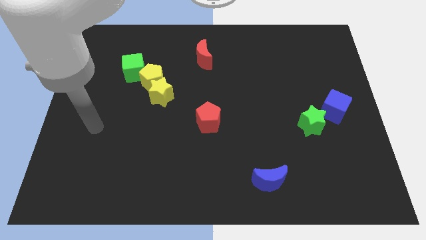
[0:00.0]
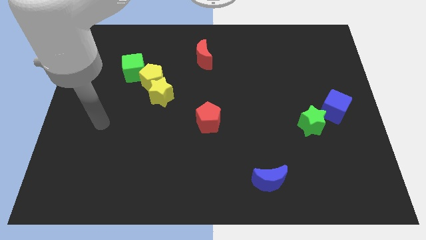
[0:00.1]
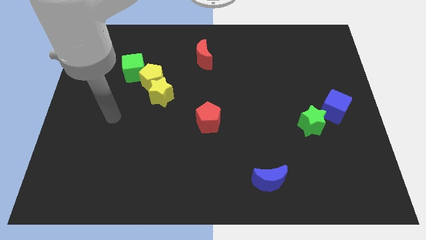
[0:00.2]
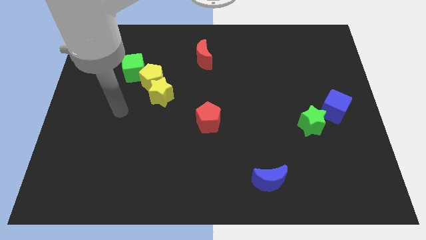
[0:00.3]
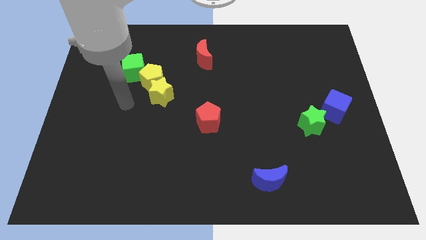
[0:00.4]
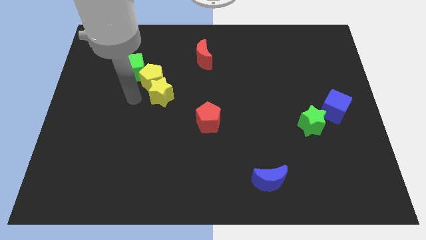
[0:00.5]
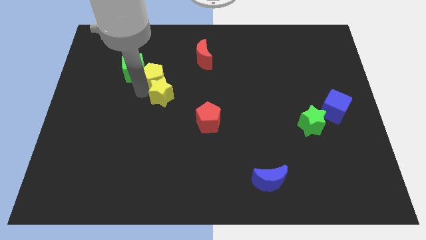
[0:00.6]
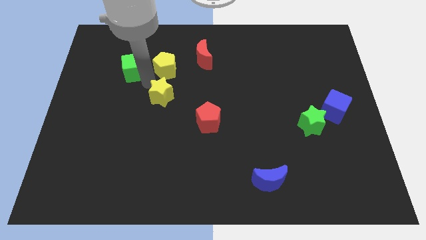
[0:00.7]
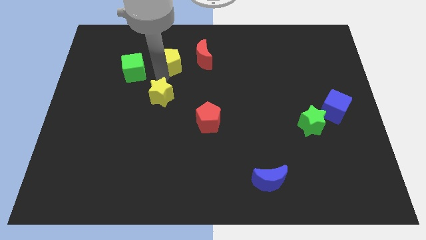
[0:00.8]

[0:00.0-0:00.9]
move the yellow star away from the yellow pentagon

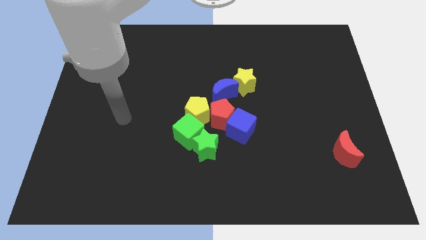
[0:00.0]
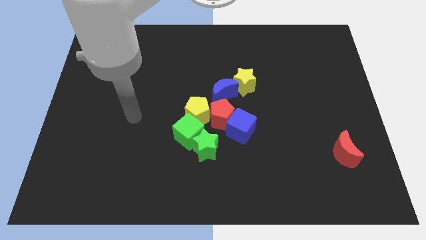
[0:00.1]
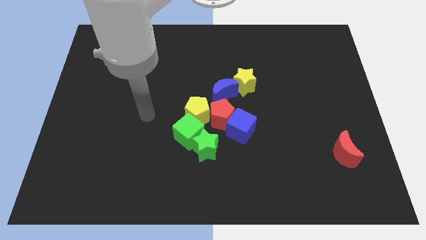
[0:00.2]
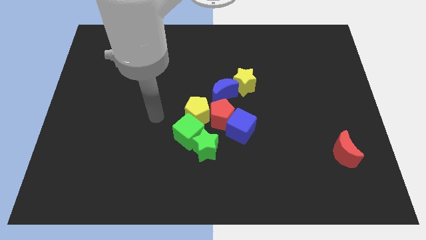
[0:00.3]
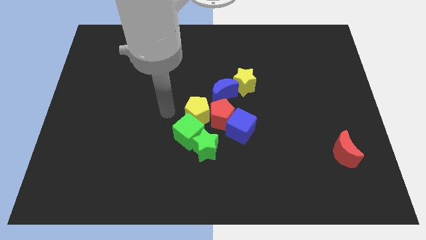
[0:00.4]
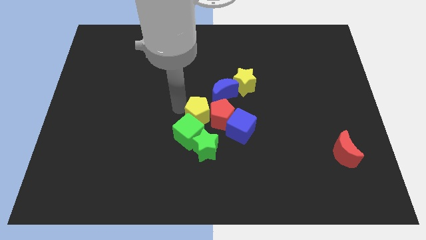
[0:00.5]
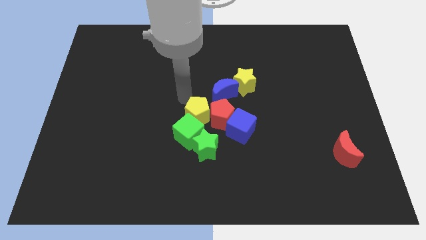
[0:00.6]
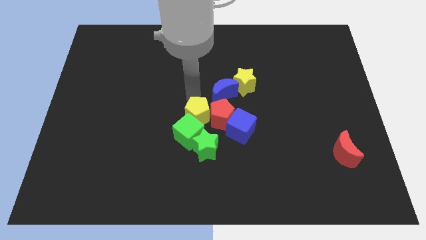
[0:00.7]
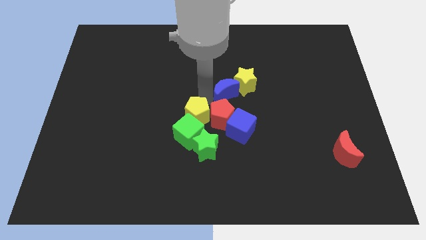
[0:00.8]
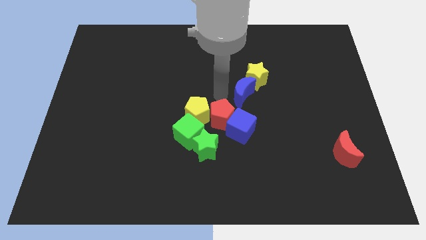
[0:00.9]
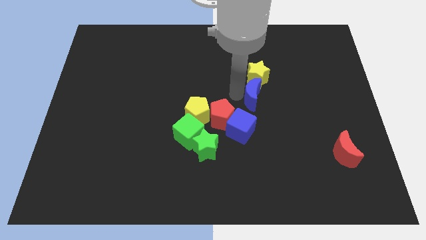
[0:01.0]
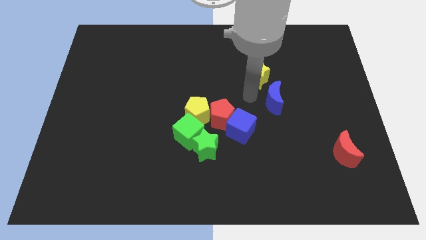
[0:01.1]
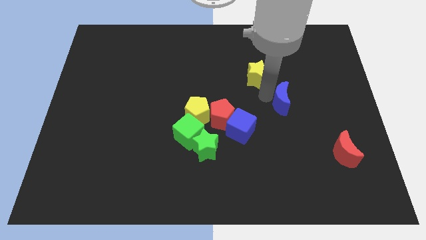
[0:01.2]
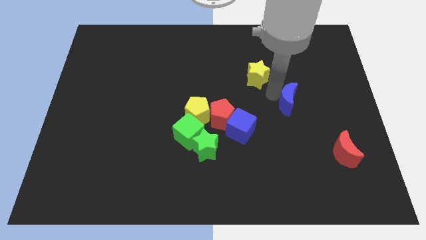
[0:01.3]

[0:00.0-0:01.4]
pull the yellow star apart from the blue moon

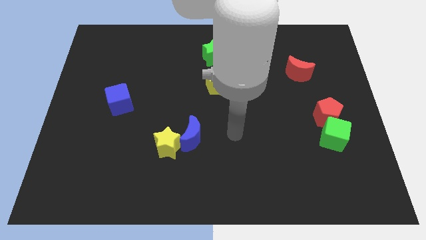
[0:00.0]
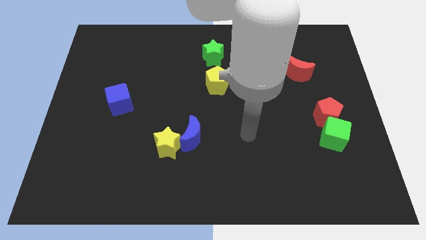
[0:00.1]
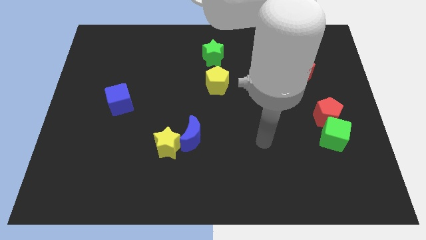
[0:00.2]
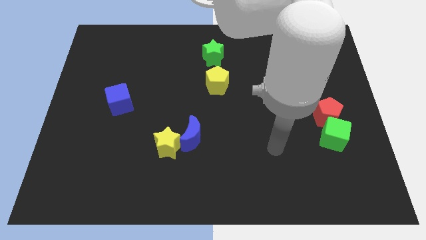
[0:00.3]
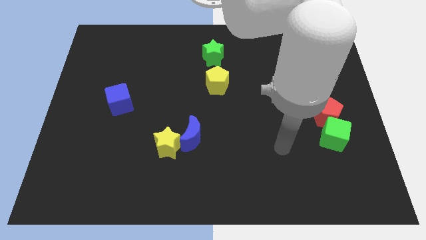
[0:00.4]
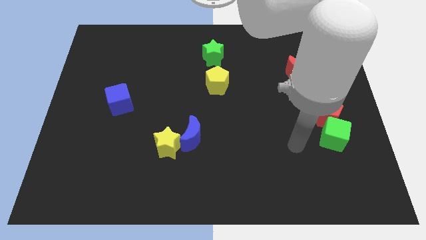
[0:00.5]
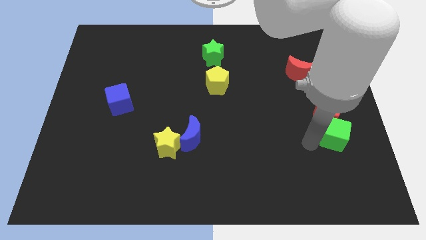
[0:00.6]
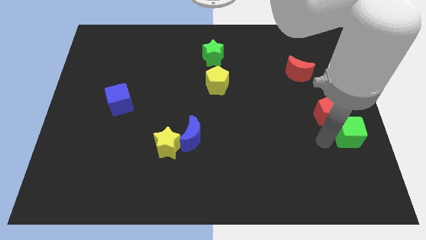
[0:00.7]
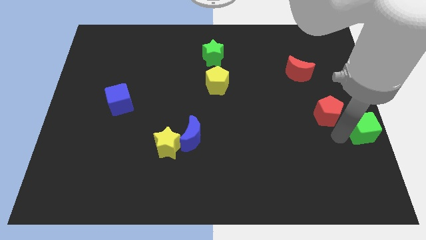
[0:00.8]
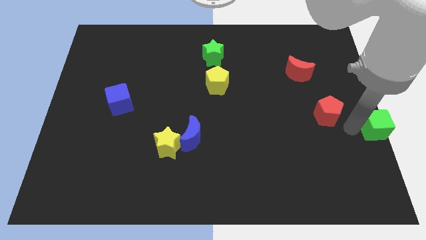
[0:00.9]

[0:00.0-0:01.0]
separate the red pentagon from the green cube

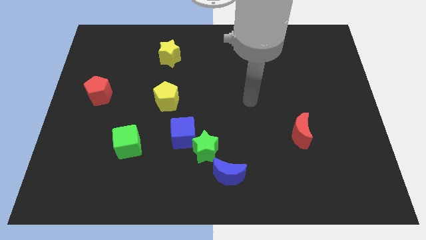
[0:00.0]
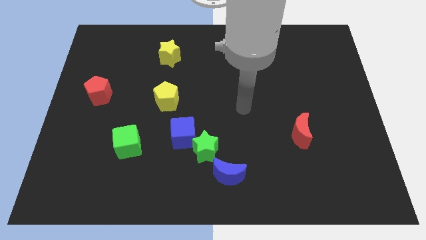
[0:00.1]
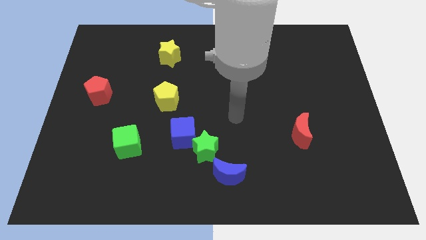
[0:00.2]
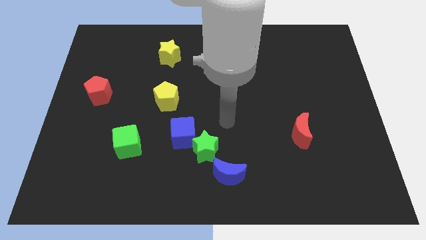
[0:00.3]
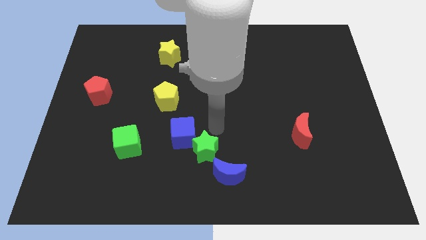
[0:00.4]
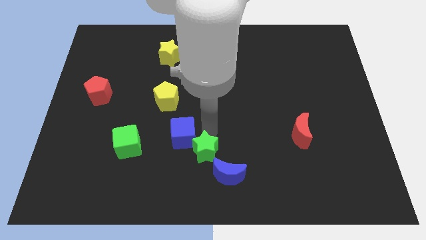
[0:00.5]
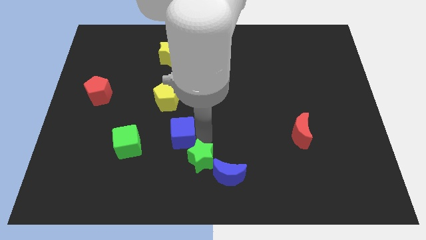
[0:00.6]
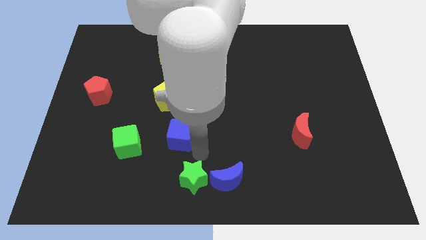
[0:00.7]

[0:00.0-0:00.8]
separate the blue cube from the green star

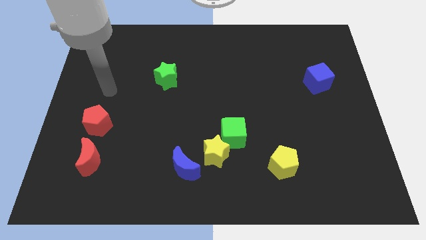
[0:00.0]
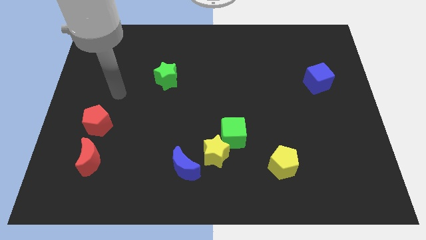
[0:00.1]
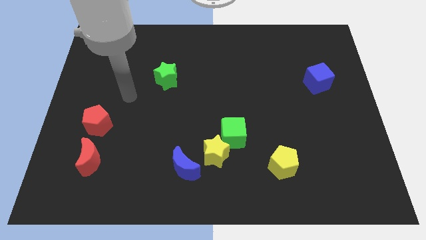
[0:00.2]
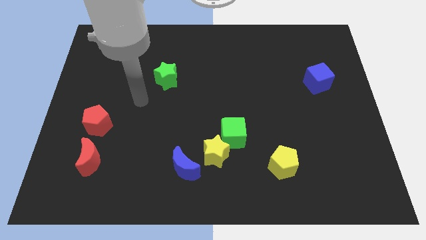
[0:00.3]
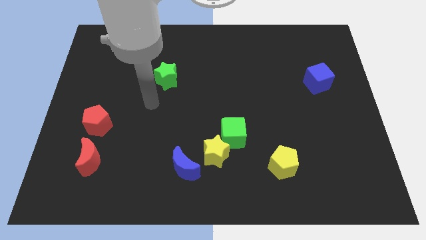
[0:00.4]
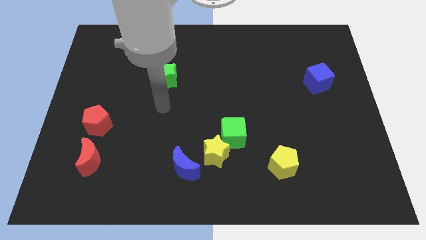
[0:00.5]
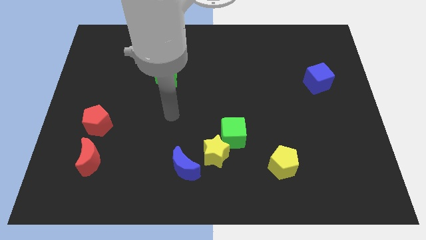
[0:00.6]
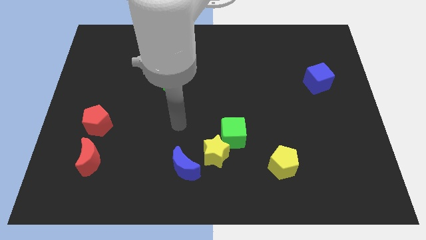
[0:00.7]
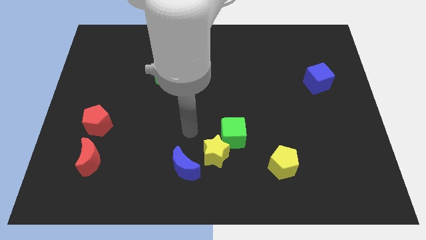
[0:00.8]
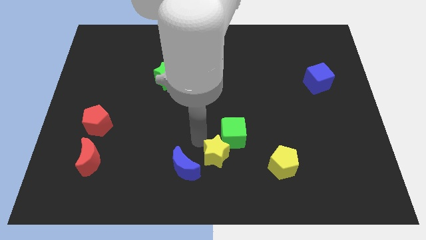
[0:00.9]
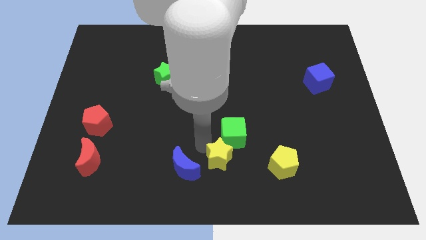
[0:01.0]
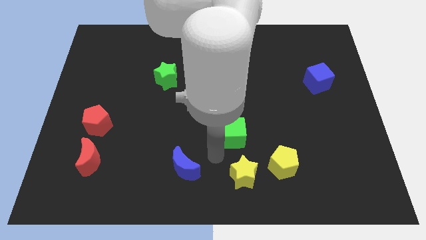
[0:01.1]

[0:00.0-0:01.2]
separate the green cube from the yellow star

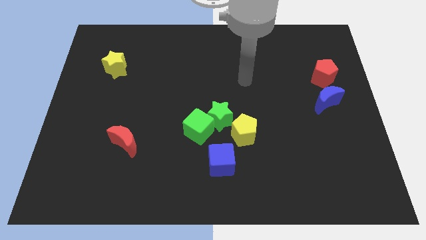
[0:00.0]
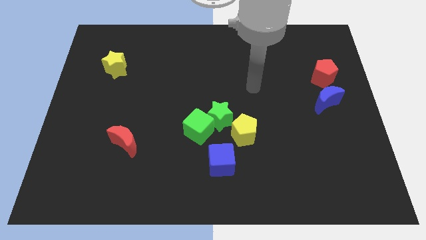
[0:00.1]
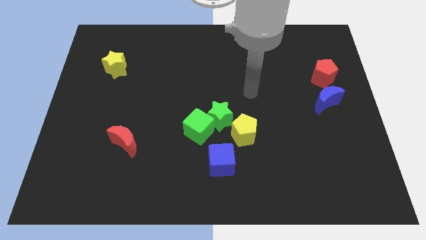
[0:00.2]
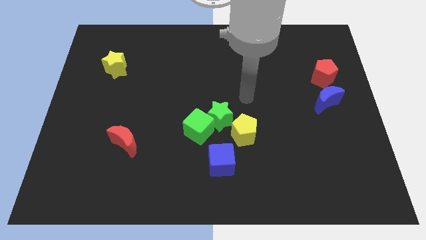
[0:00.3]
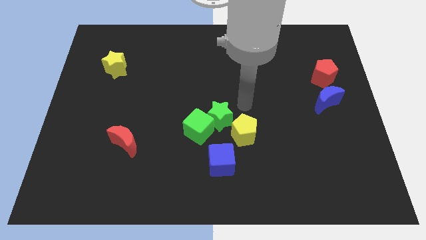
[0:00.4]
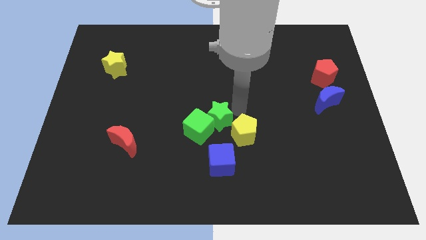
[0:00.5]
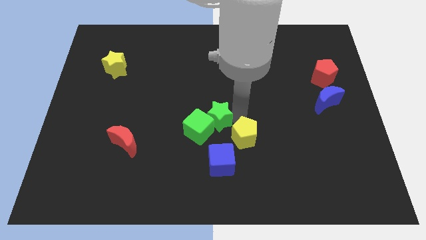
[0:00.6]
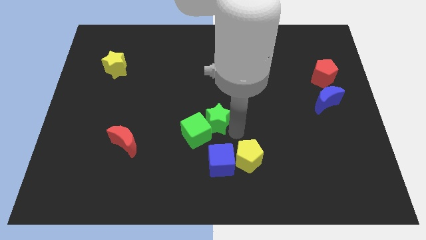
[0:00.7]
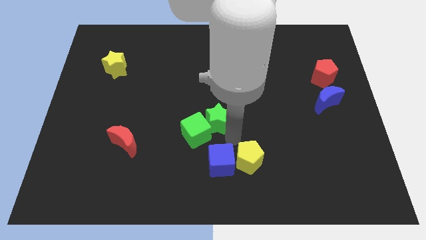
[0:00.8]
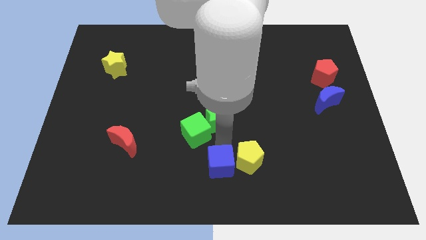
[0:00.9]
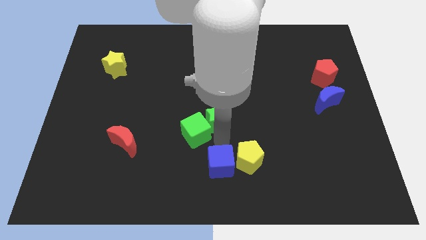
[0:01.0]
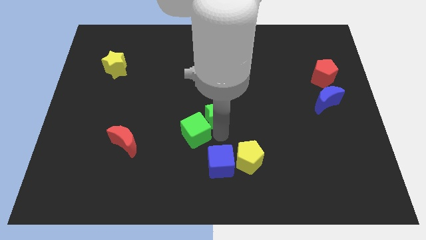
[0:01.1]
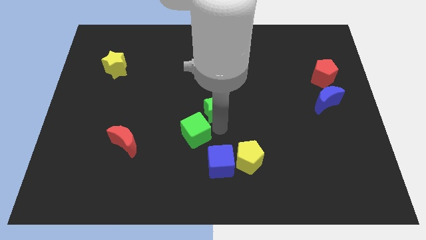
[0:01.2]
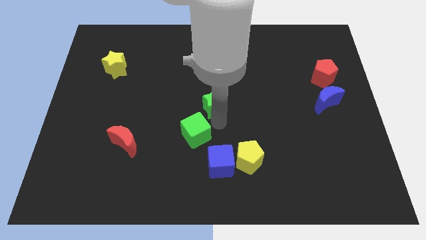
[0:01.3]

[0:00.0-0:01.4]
separate the green star from the green cube and yellow pentagon

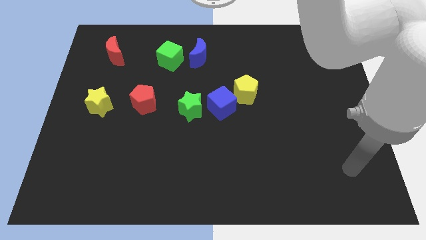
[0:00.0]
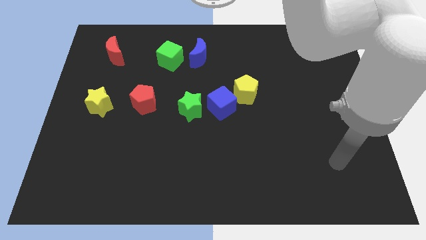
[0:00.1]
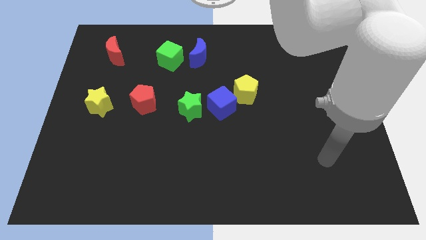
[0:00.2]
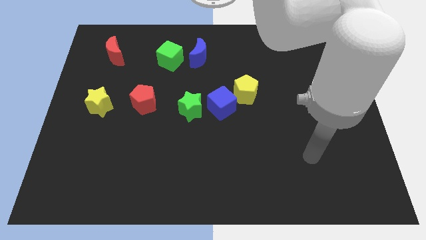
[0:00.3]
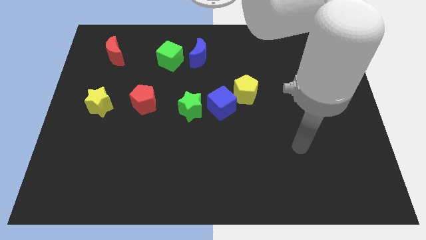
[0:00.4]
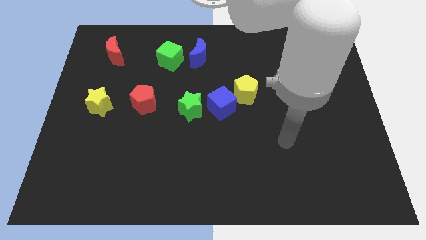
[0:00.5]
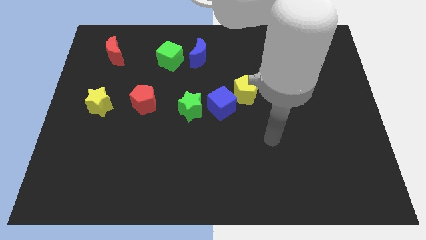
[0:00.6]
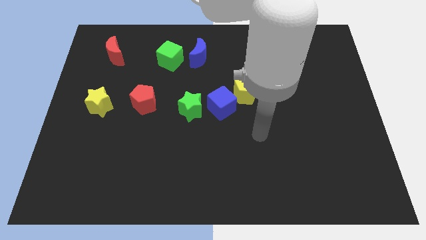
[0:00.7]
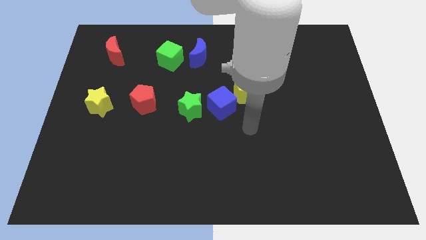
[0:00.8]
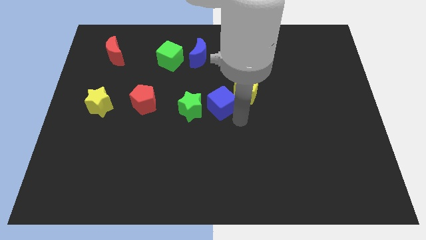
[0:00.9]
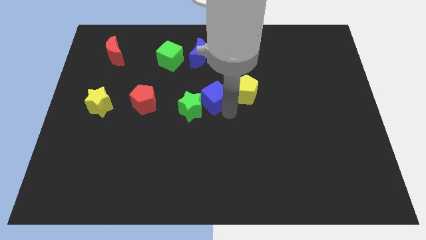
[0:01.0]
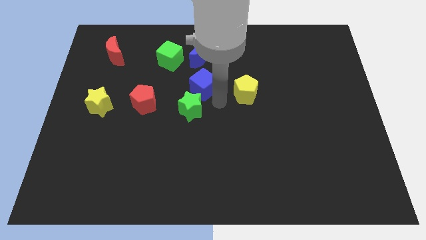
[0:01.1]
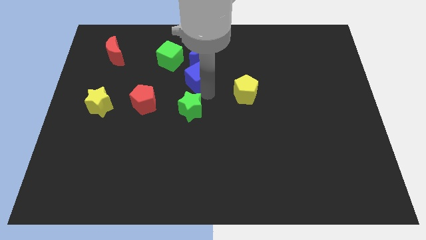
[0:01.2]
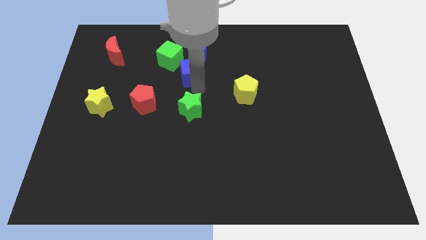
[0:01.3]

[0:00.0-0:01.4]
separate the green star from the blue cube

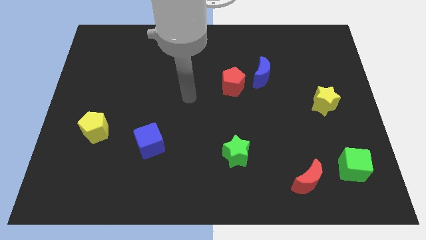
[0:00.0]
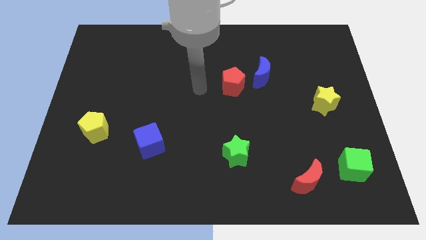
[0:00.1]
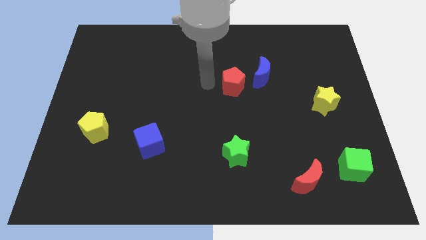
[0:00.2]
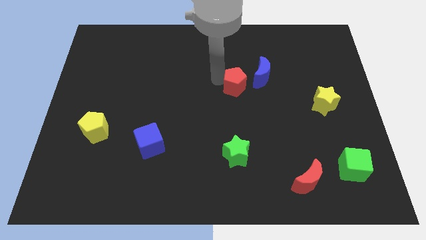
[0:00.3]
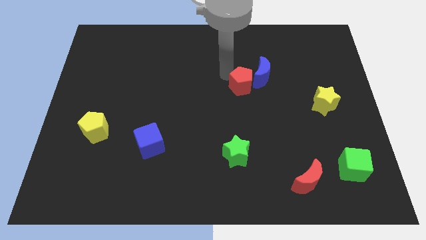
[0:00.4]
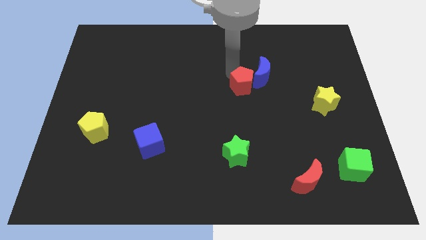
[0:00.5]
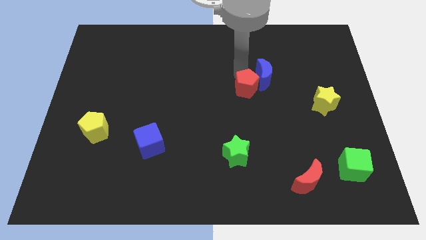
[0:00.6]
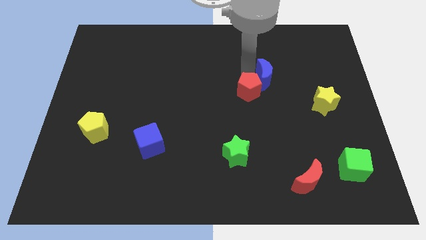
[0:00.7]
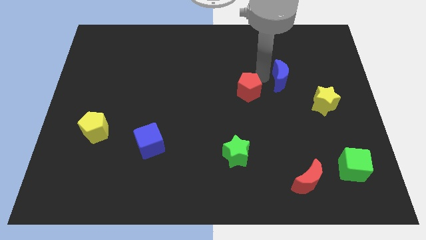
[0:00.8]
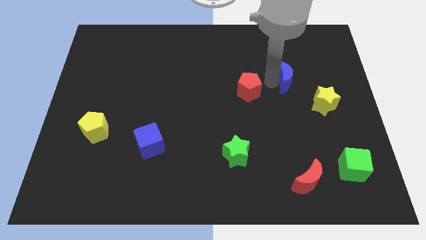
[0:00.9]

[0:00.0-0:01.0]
move the red pentagon away from the blue moon

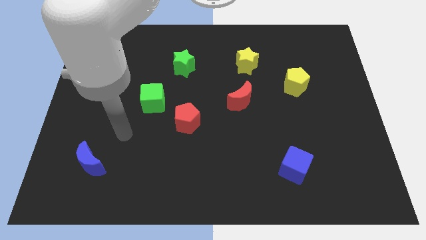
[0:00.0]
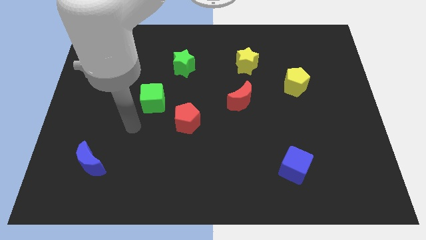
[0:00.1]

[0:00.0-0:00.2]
pull the red pentagon apart from the green cube
